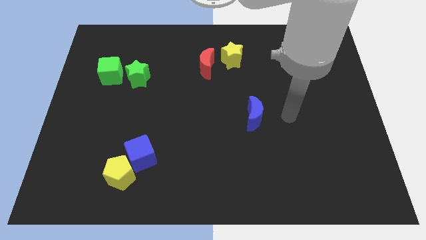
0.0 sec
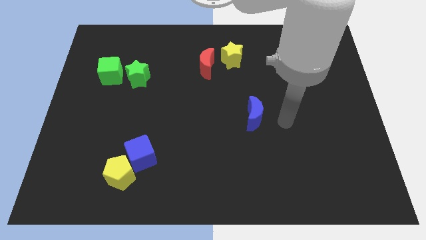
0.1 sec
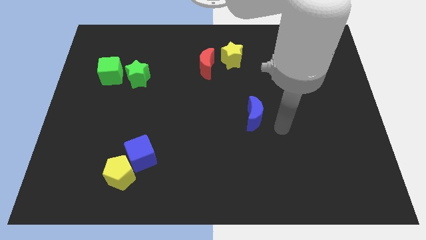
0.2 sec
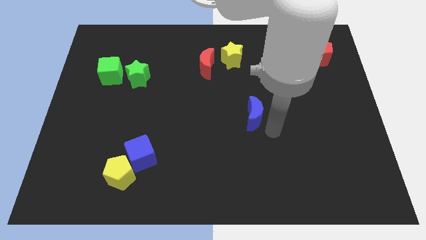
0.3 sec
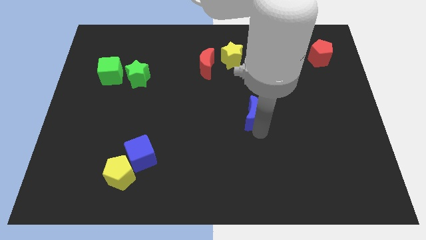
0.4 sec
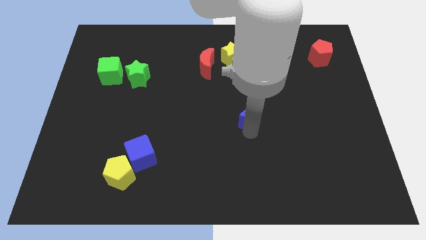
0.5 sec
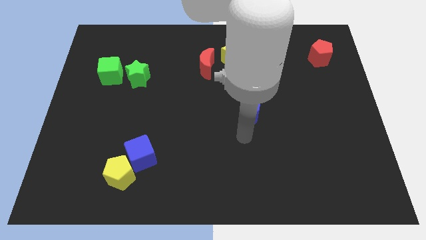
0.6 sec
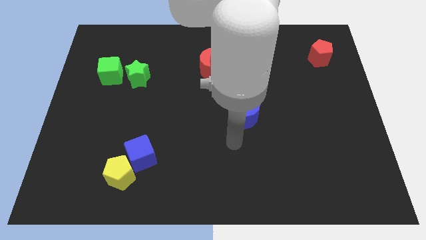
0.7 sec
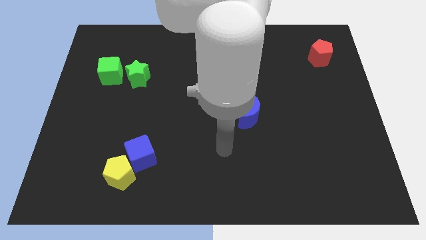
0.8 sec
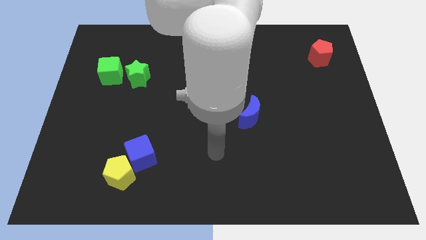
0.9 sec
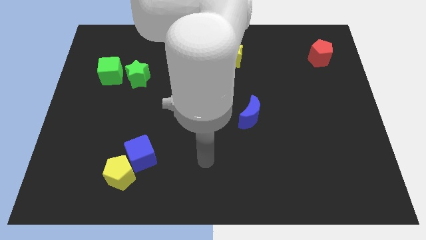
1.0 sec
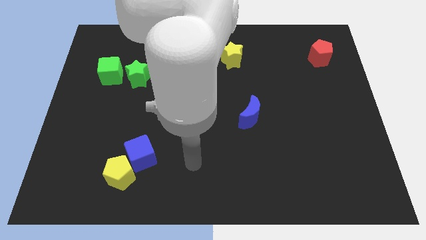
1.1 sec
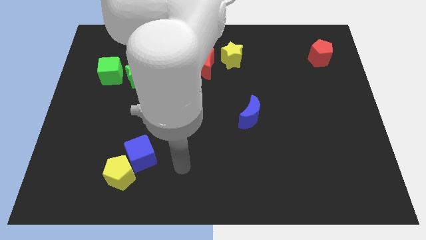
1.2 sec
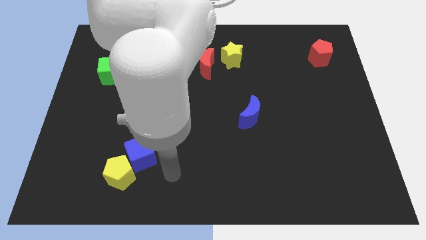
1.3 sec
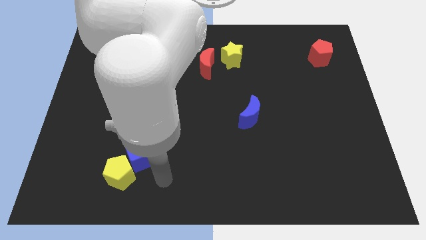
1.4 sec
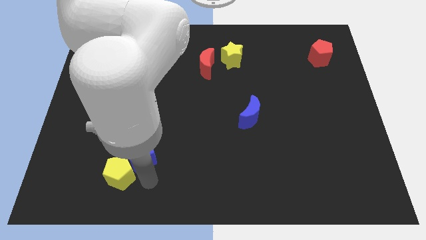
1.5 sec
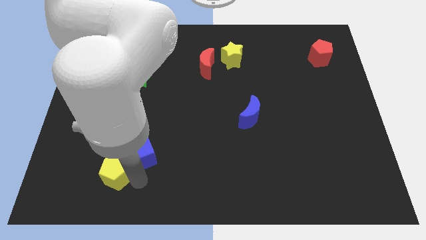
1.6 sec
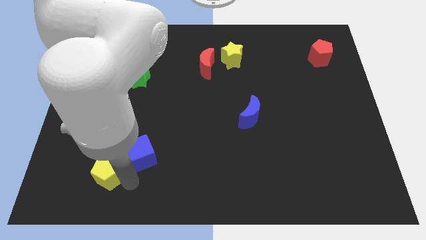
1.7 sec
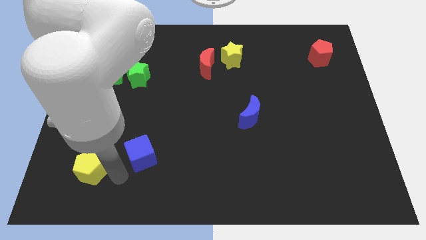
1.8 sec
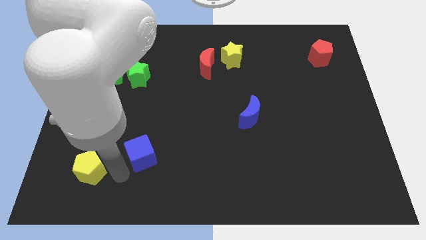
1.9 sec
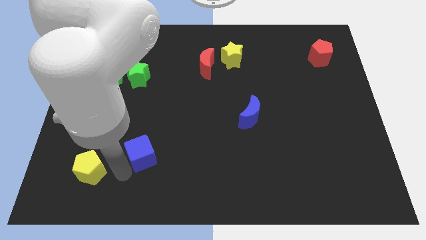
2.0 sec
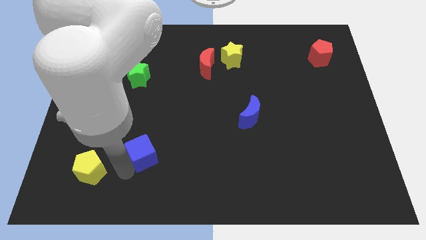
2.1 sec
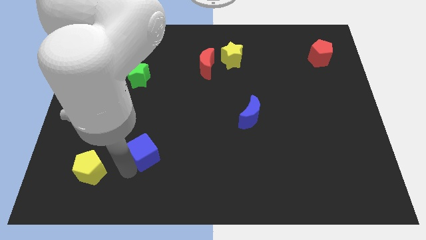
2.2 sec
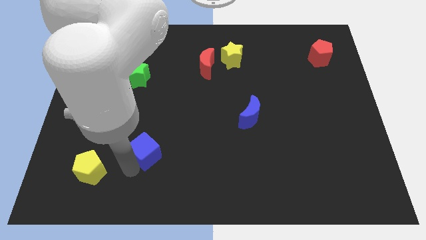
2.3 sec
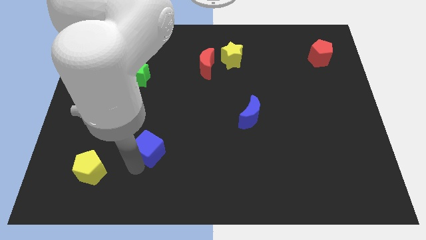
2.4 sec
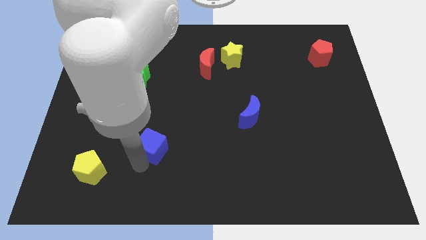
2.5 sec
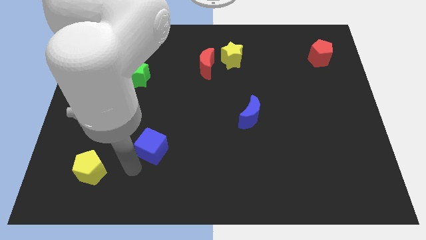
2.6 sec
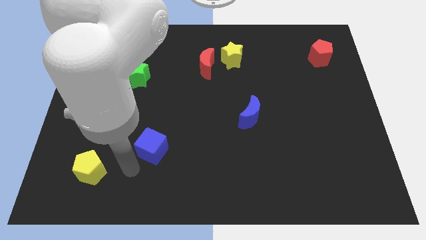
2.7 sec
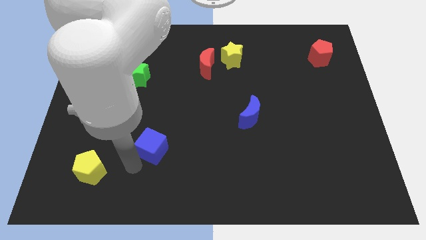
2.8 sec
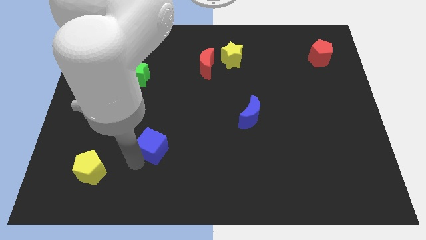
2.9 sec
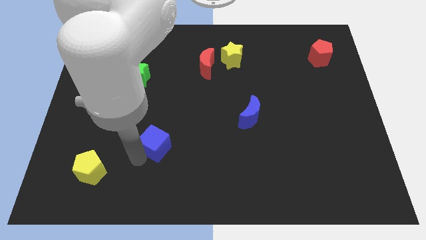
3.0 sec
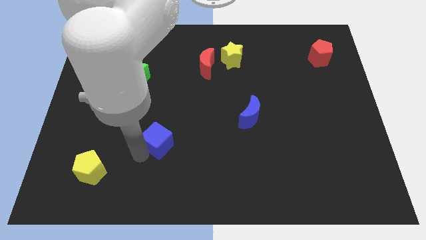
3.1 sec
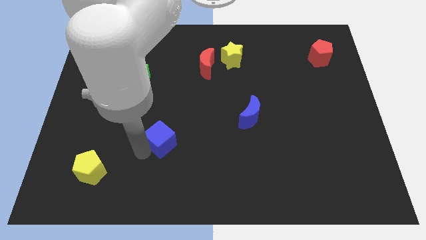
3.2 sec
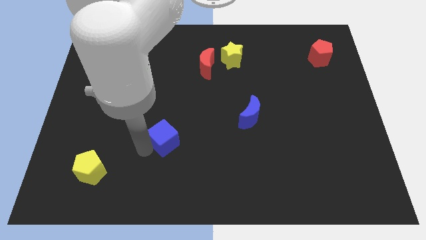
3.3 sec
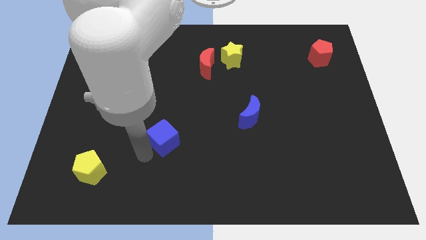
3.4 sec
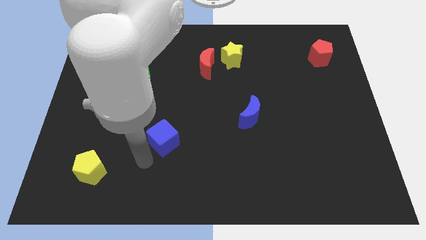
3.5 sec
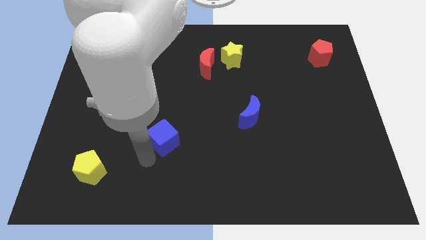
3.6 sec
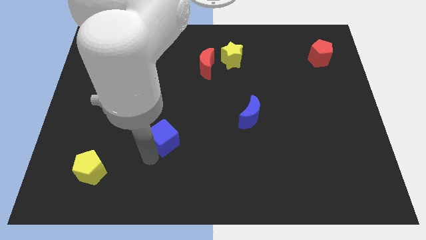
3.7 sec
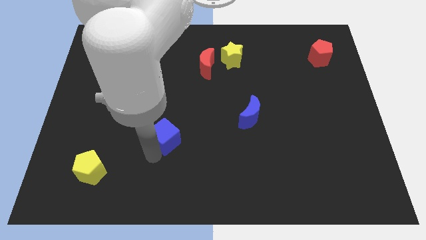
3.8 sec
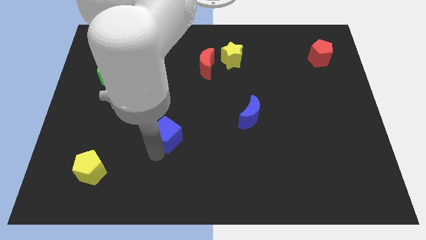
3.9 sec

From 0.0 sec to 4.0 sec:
move the blue cube up and then right a little

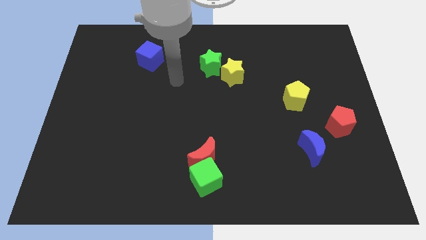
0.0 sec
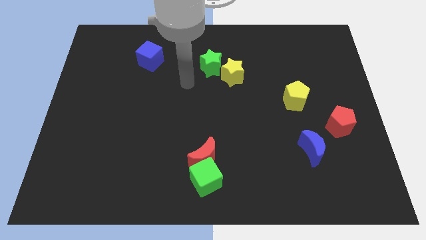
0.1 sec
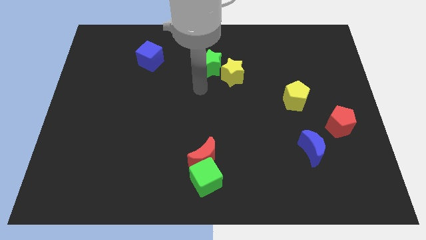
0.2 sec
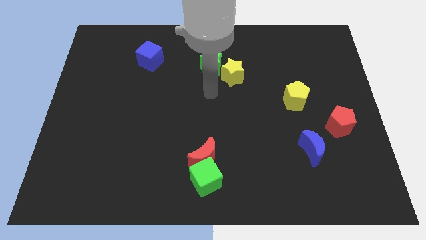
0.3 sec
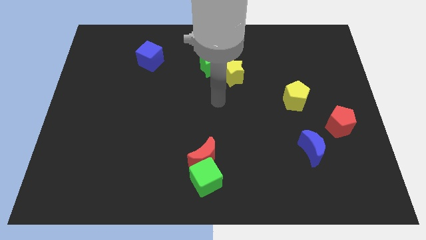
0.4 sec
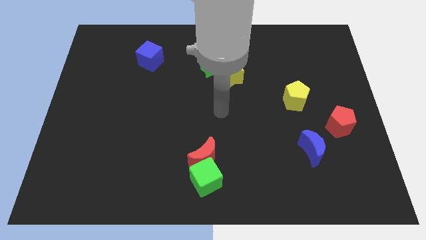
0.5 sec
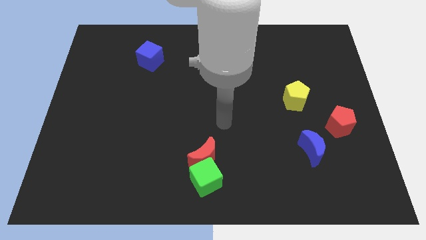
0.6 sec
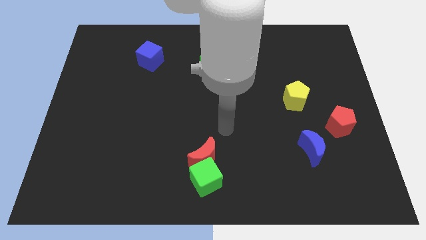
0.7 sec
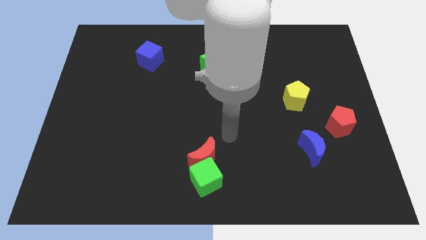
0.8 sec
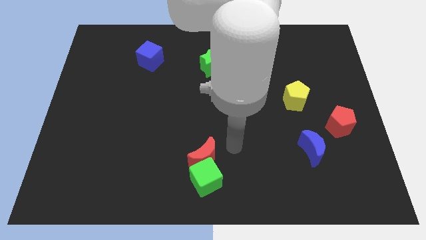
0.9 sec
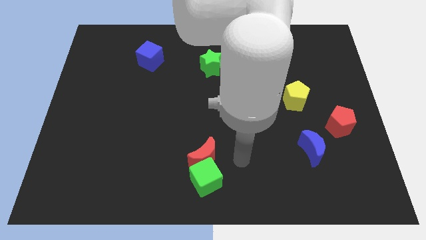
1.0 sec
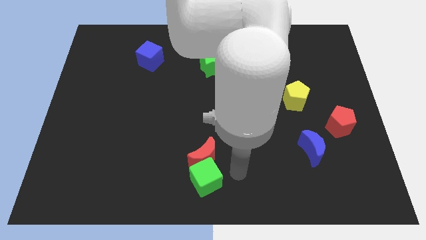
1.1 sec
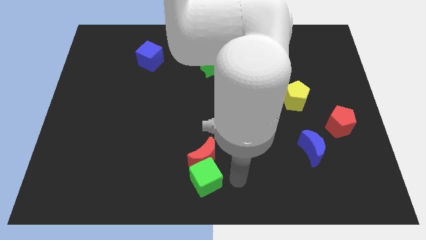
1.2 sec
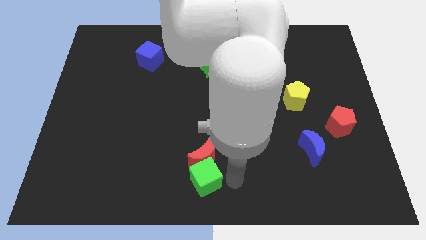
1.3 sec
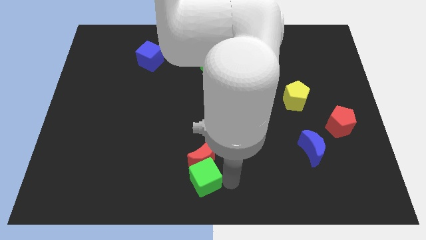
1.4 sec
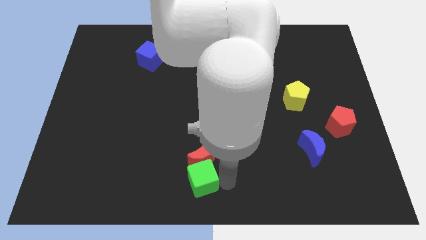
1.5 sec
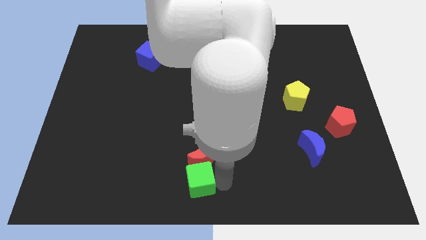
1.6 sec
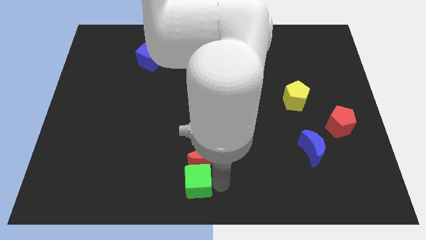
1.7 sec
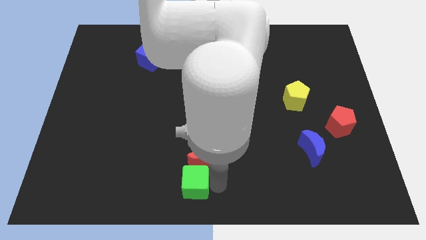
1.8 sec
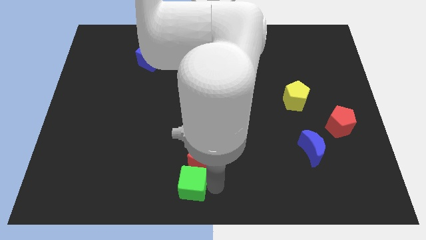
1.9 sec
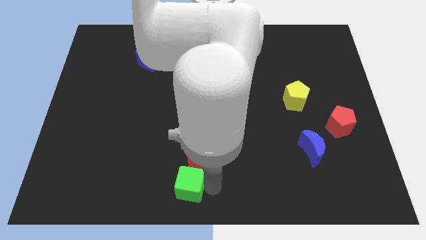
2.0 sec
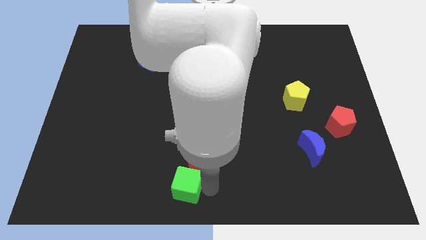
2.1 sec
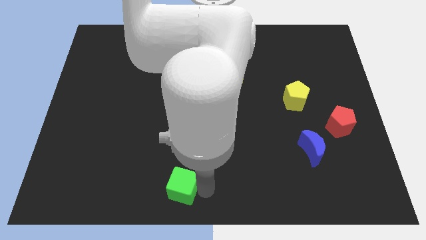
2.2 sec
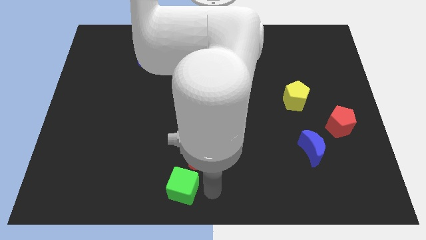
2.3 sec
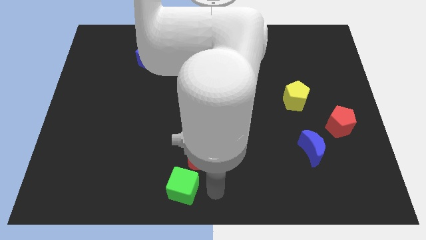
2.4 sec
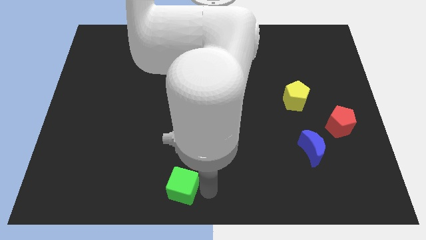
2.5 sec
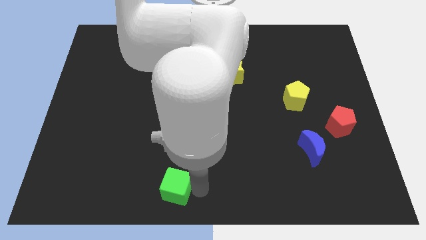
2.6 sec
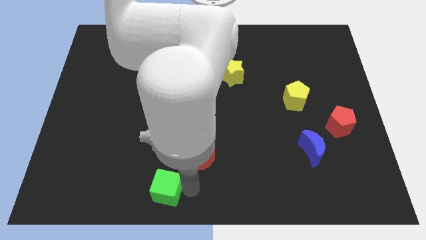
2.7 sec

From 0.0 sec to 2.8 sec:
move the green cube to the left slightly

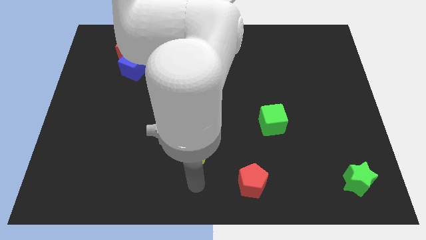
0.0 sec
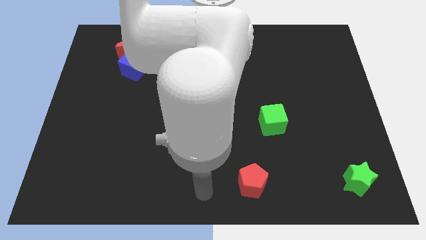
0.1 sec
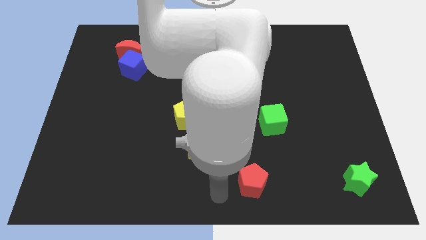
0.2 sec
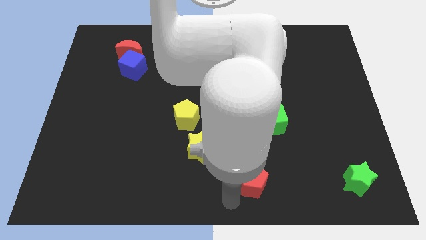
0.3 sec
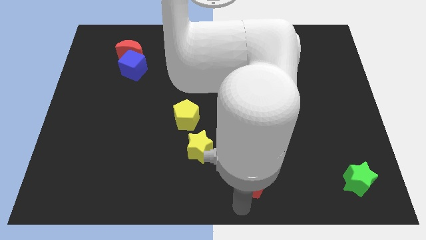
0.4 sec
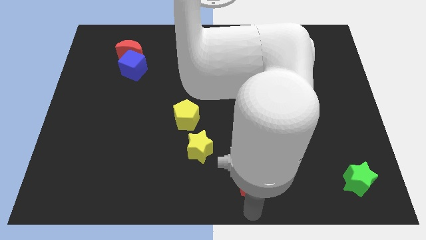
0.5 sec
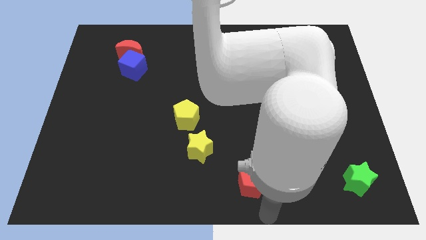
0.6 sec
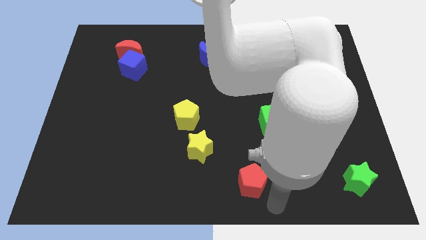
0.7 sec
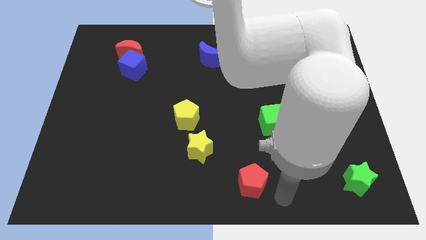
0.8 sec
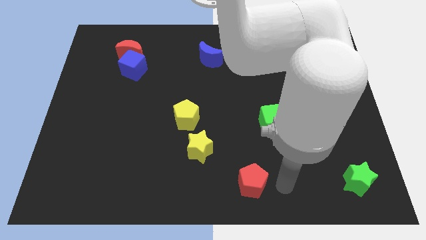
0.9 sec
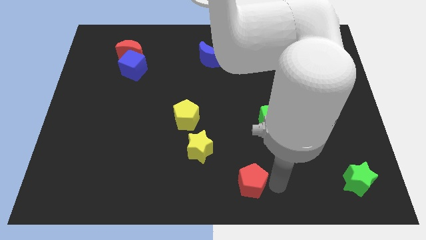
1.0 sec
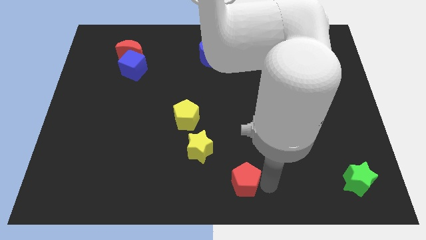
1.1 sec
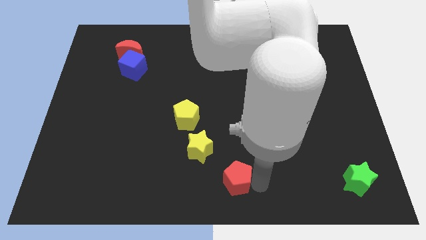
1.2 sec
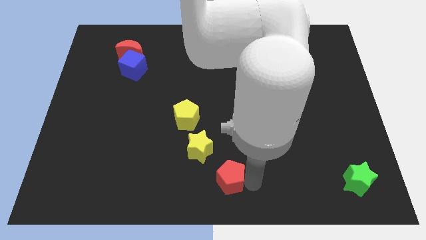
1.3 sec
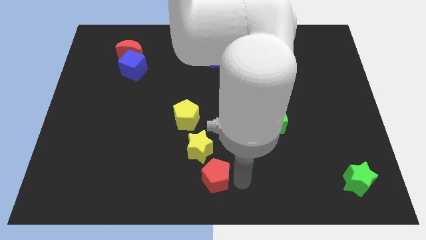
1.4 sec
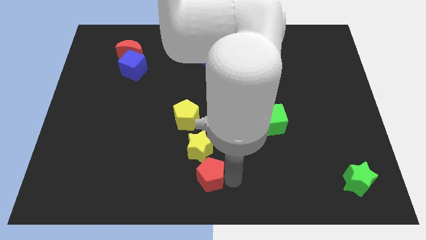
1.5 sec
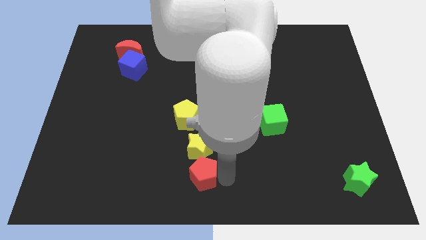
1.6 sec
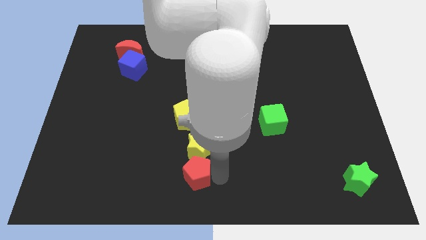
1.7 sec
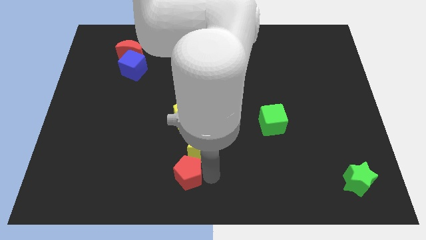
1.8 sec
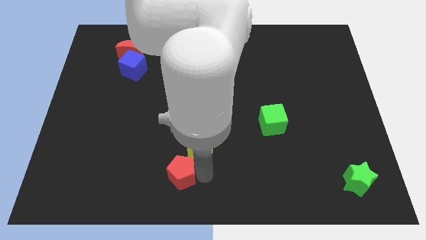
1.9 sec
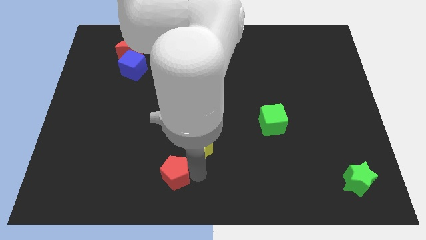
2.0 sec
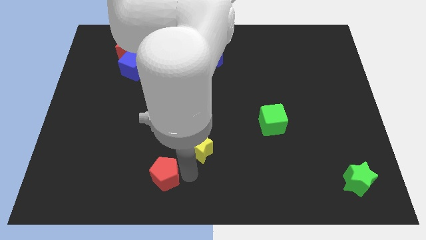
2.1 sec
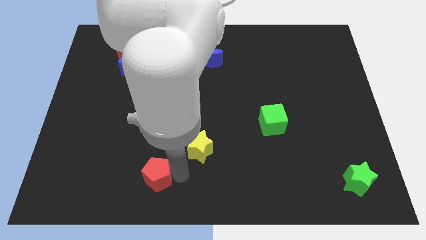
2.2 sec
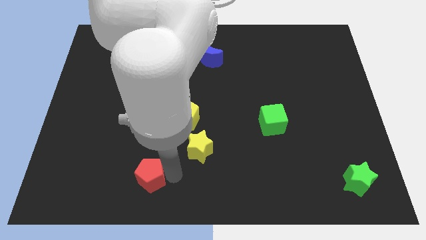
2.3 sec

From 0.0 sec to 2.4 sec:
move the red pentagon left
